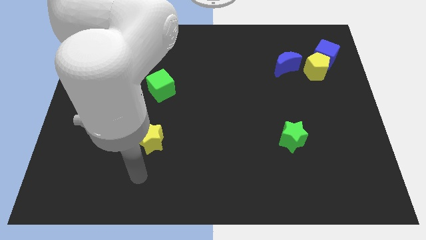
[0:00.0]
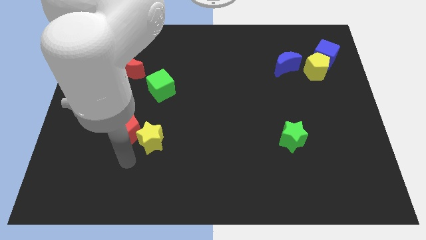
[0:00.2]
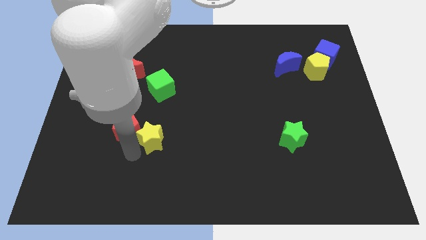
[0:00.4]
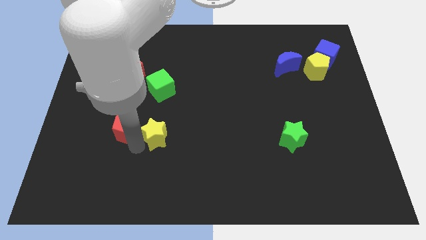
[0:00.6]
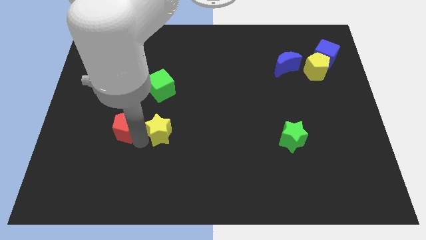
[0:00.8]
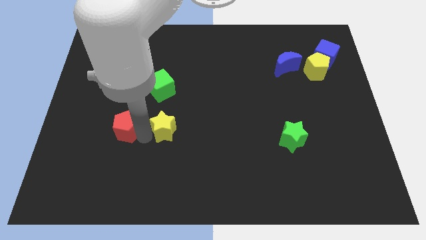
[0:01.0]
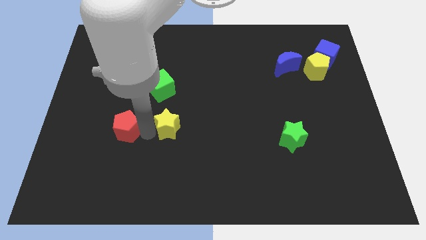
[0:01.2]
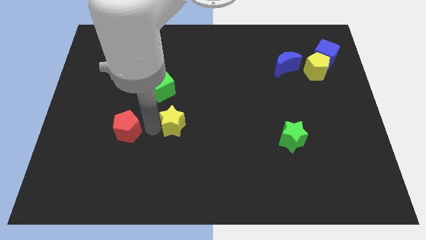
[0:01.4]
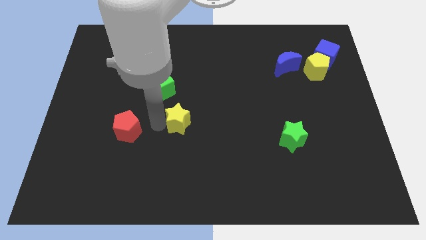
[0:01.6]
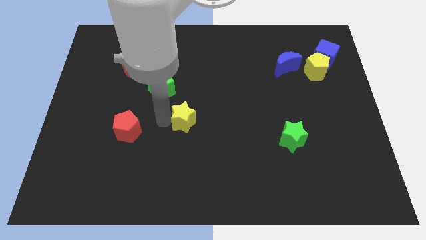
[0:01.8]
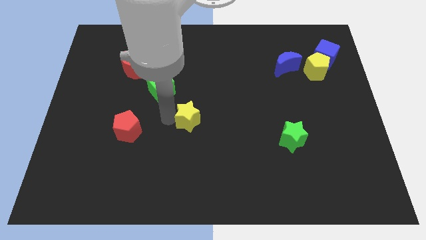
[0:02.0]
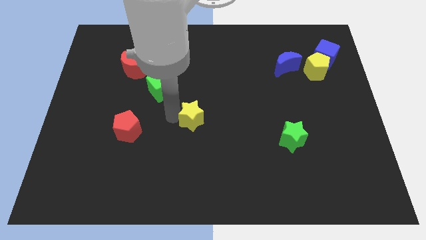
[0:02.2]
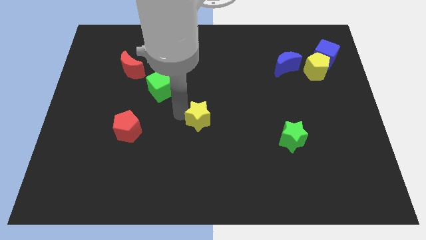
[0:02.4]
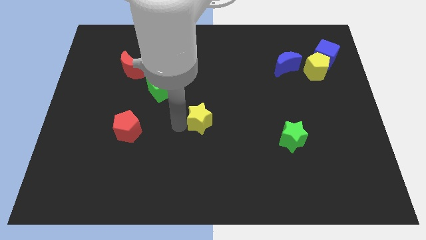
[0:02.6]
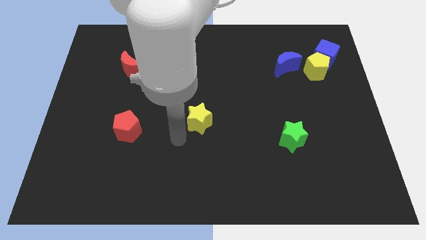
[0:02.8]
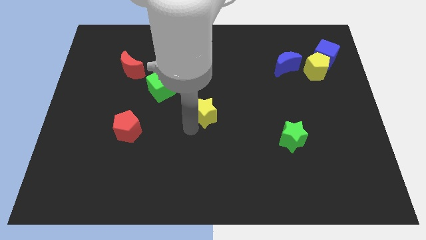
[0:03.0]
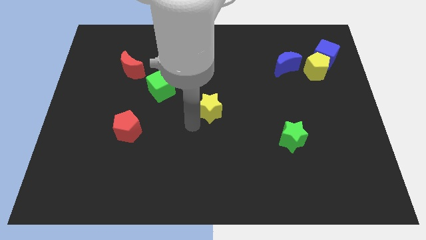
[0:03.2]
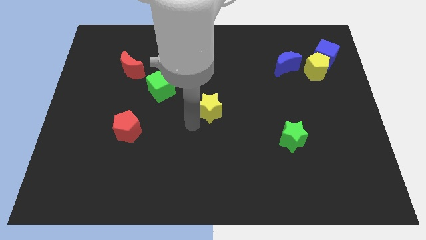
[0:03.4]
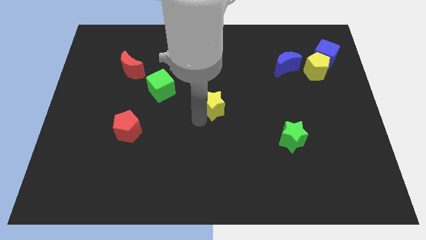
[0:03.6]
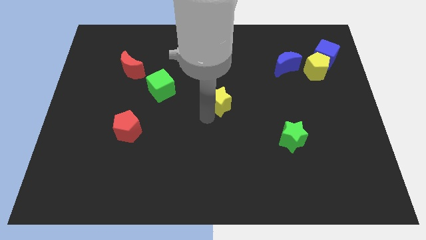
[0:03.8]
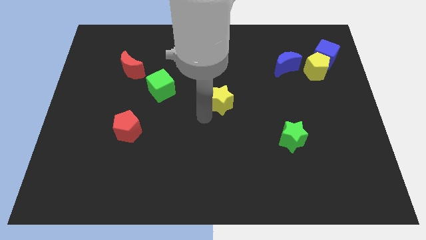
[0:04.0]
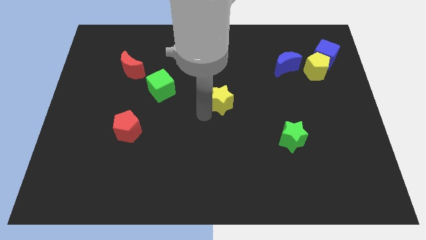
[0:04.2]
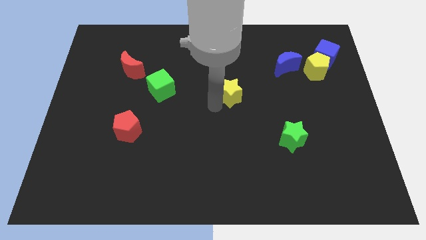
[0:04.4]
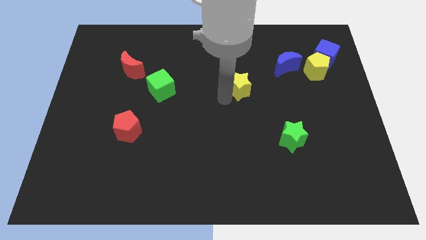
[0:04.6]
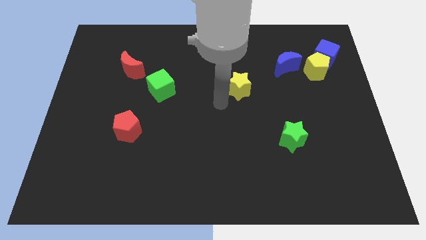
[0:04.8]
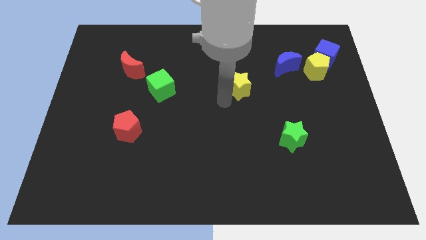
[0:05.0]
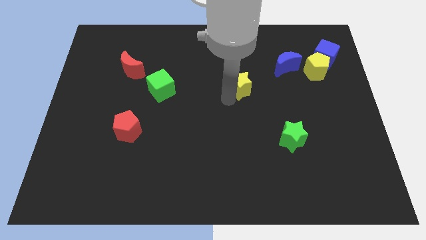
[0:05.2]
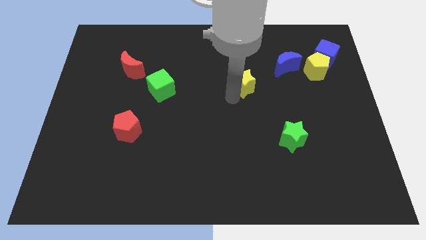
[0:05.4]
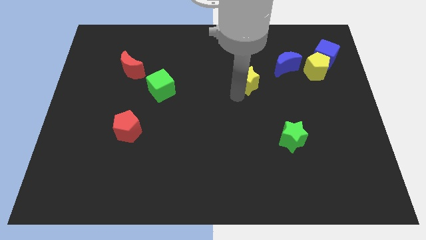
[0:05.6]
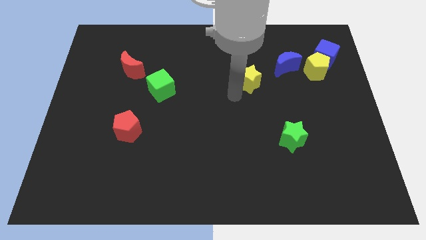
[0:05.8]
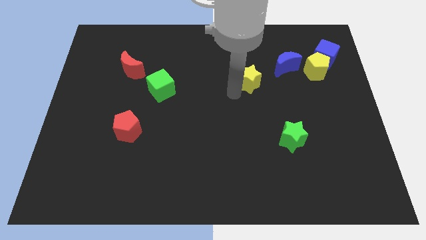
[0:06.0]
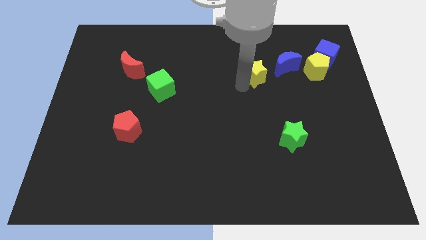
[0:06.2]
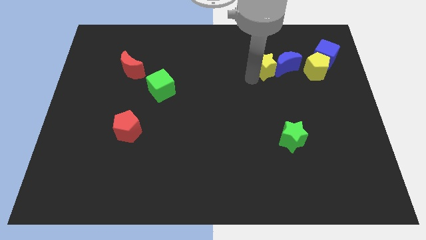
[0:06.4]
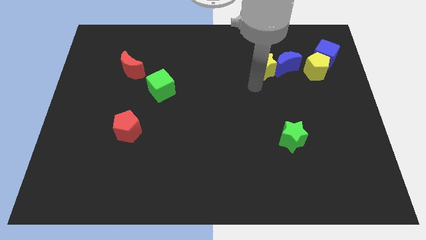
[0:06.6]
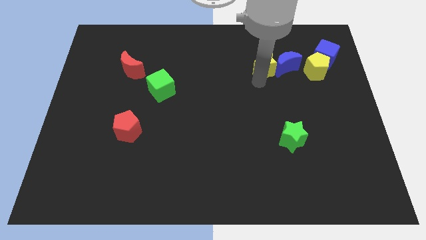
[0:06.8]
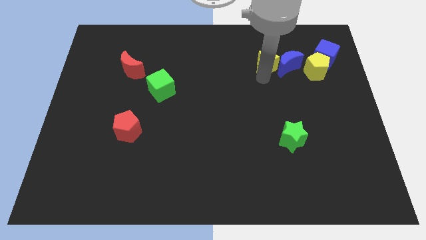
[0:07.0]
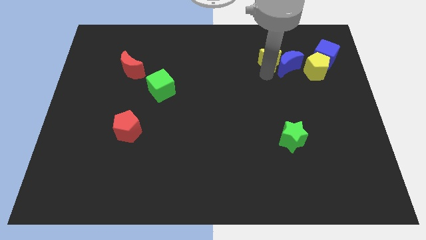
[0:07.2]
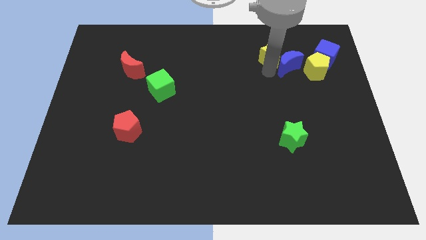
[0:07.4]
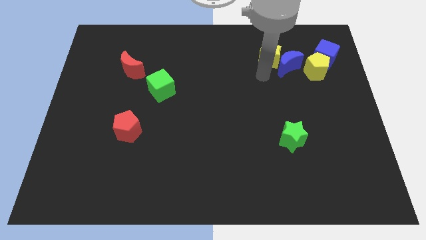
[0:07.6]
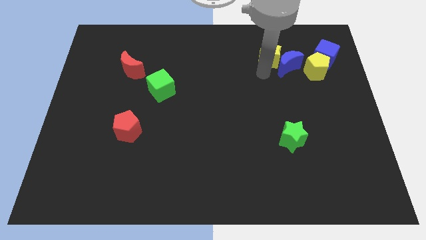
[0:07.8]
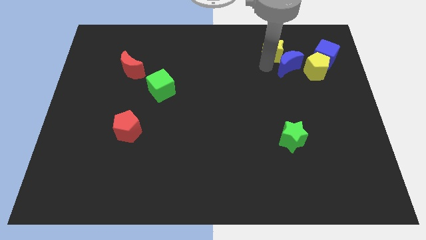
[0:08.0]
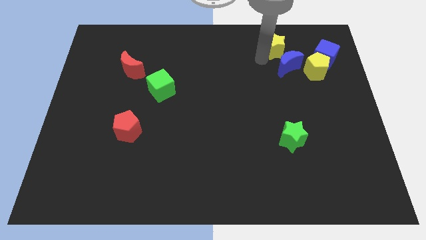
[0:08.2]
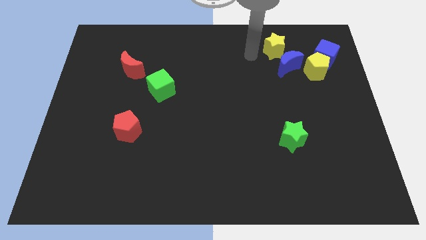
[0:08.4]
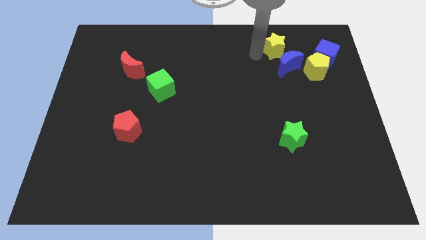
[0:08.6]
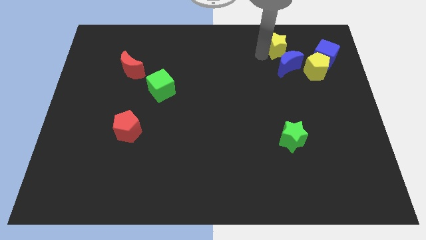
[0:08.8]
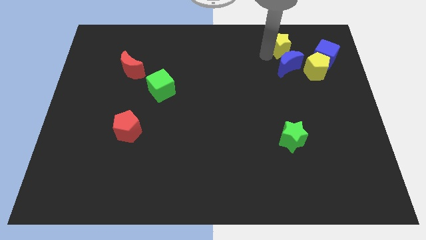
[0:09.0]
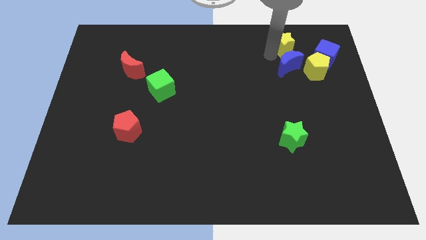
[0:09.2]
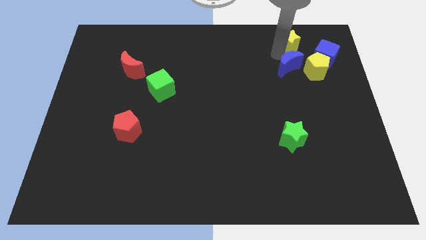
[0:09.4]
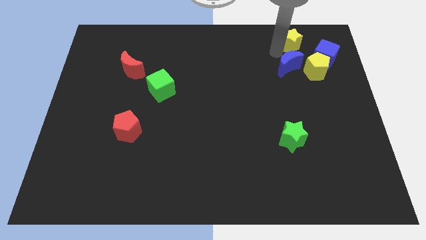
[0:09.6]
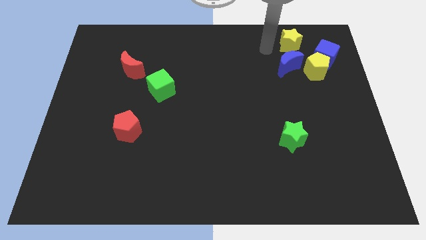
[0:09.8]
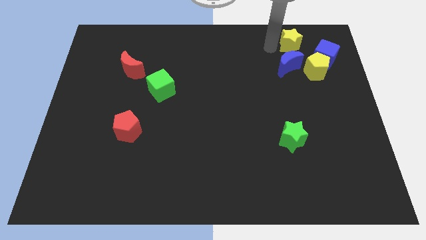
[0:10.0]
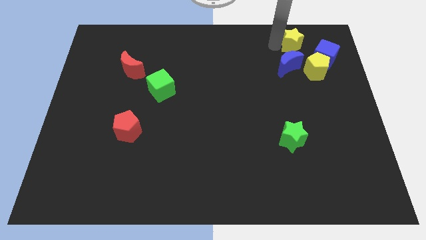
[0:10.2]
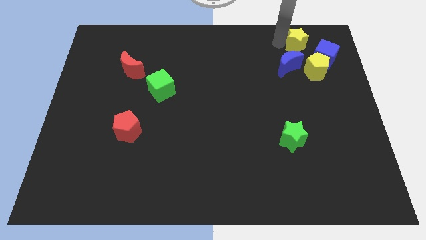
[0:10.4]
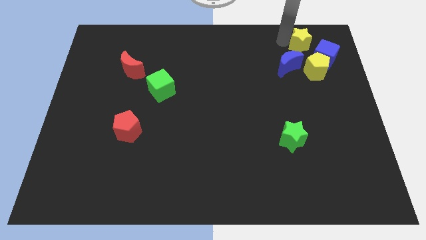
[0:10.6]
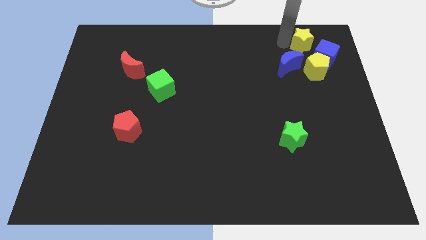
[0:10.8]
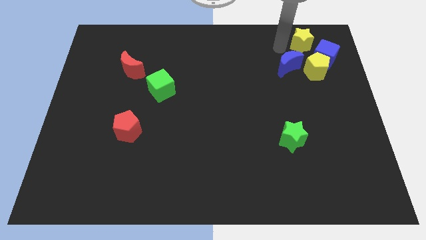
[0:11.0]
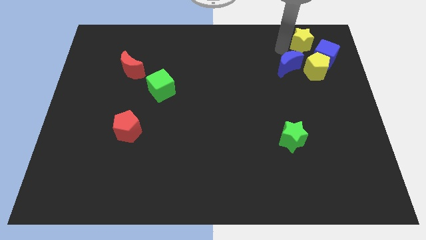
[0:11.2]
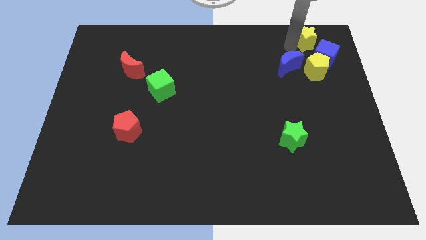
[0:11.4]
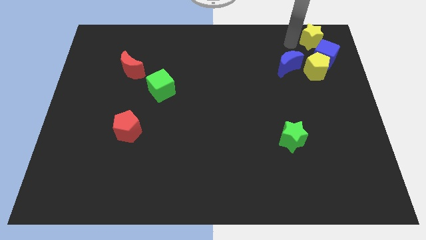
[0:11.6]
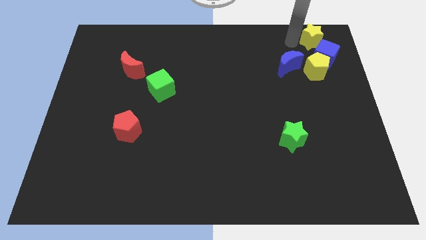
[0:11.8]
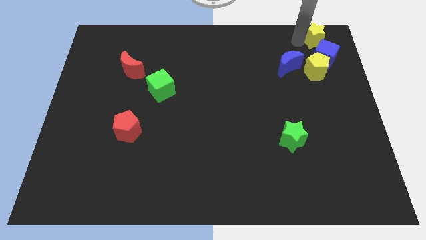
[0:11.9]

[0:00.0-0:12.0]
slide the yellow star to the upper right corner
